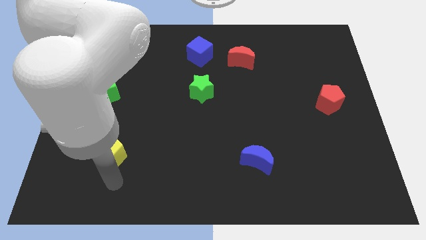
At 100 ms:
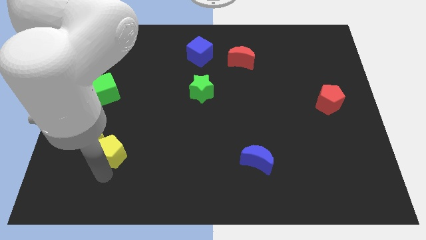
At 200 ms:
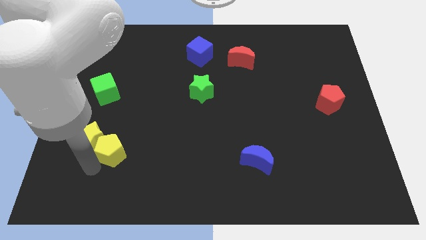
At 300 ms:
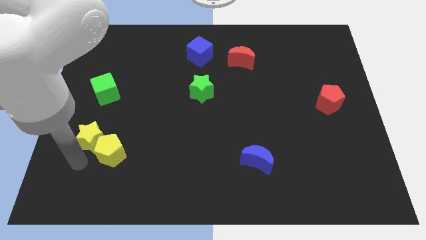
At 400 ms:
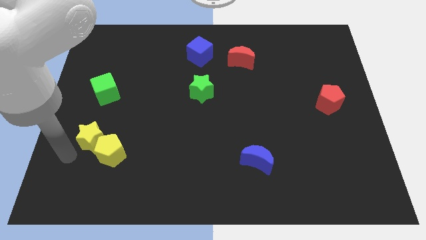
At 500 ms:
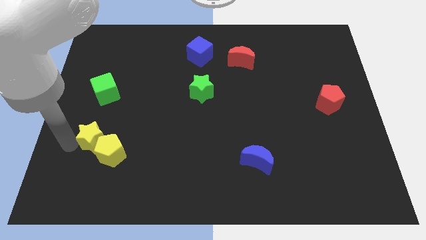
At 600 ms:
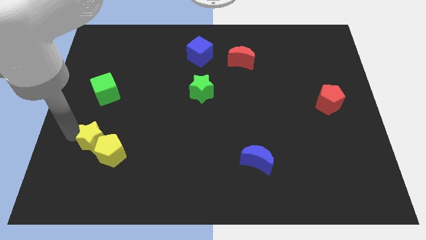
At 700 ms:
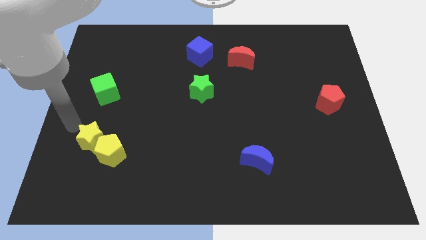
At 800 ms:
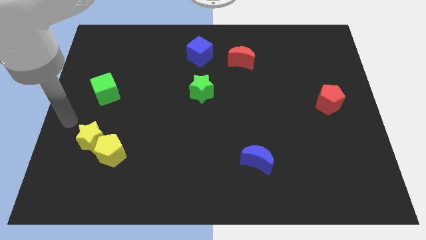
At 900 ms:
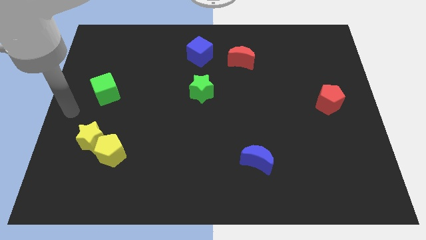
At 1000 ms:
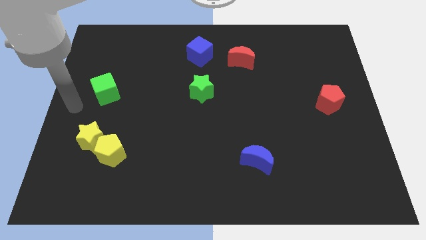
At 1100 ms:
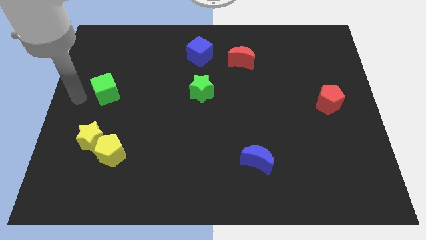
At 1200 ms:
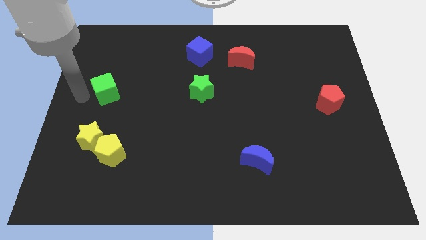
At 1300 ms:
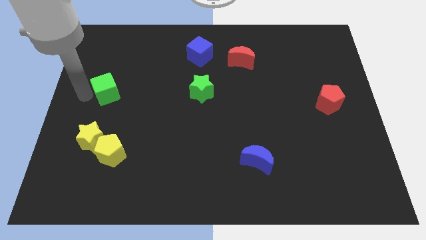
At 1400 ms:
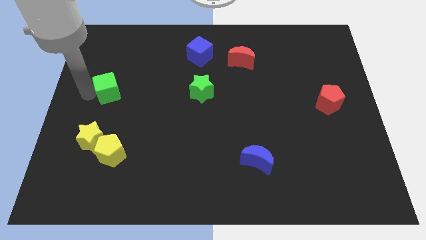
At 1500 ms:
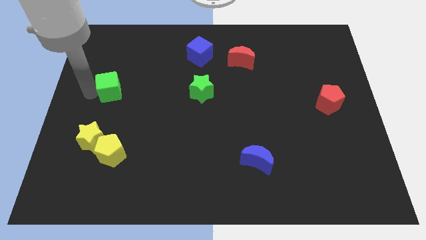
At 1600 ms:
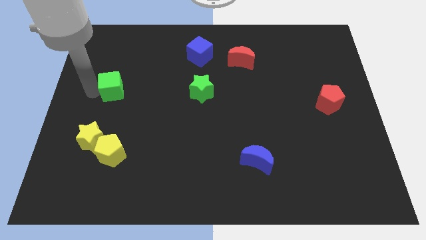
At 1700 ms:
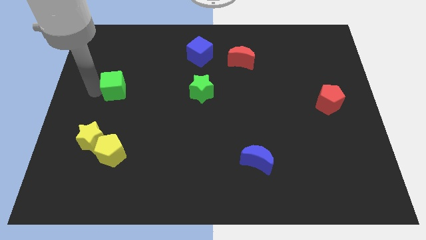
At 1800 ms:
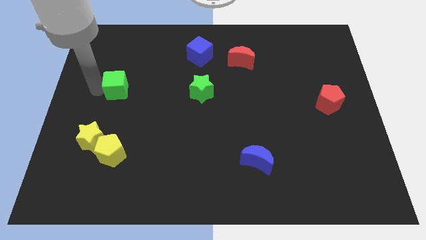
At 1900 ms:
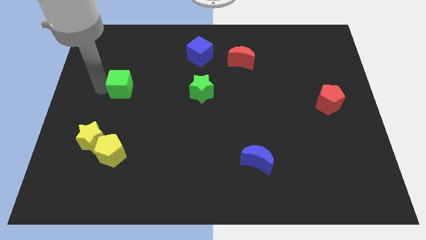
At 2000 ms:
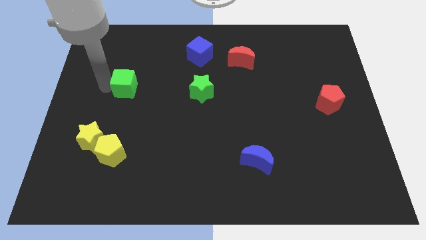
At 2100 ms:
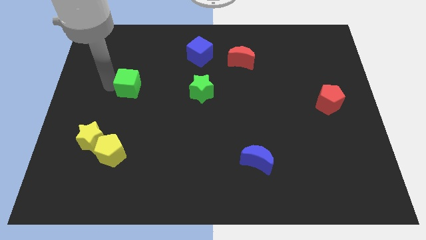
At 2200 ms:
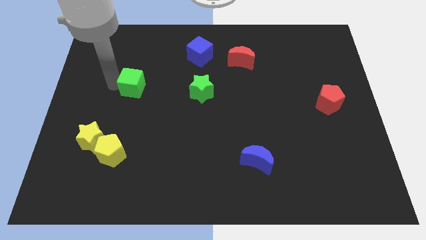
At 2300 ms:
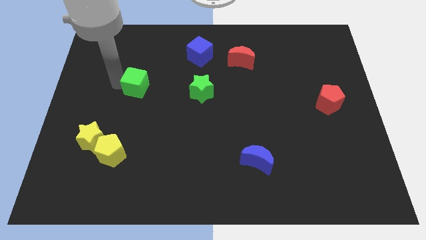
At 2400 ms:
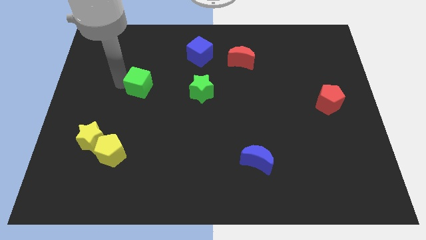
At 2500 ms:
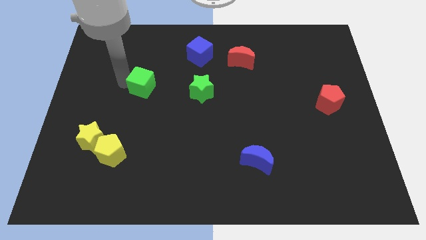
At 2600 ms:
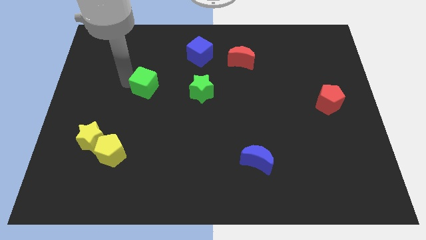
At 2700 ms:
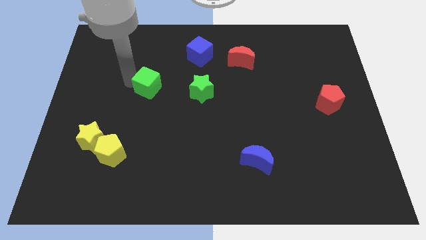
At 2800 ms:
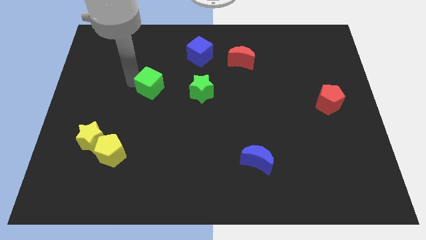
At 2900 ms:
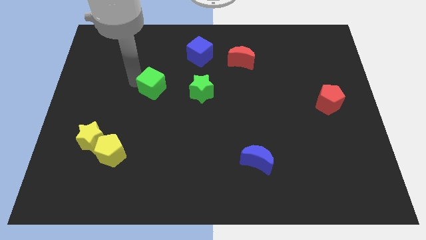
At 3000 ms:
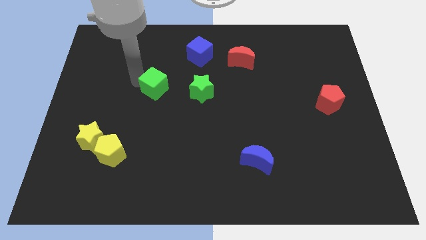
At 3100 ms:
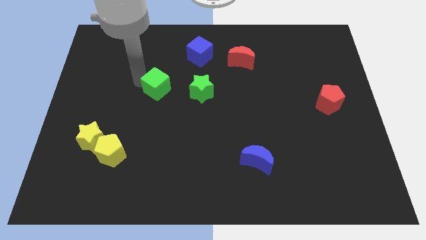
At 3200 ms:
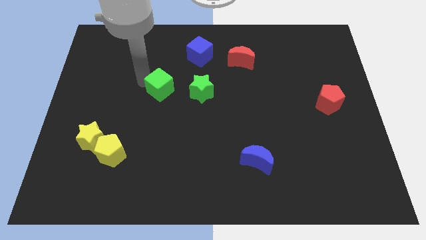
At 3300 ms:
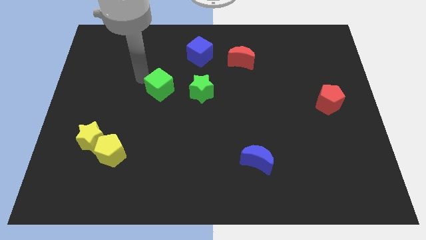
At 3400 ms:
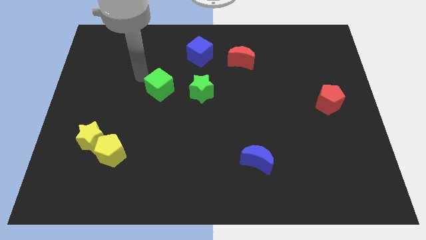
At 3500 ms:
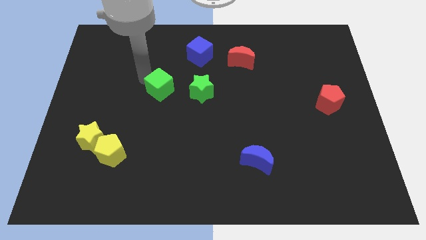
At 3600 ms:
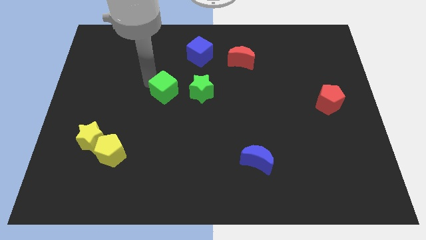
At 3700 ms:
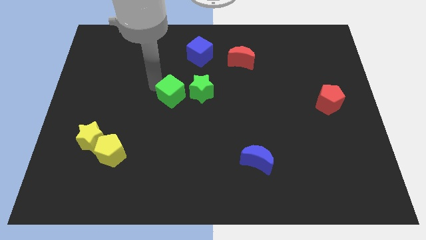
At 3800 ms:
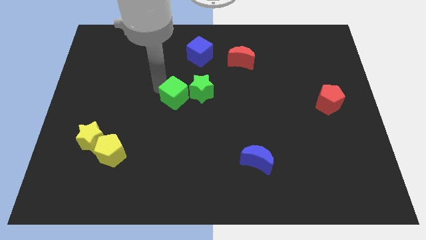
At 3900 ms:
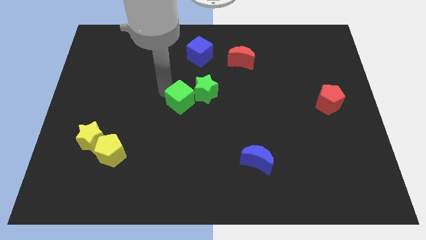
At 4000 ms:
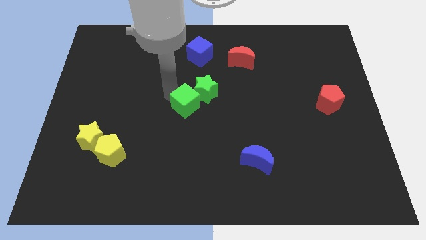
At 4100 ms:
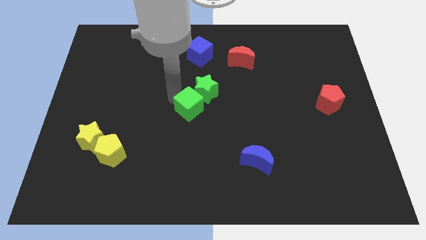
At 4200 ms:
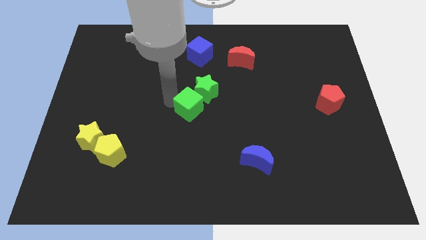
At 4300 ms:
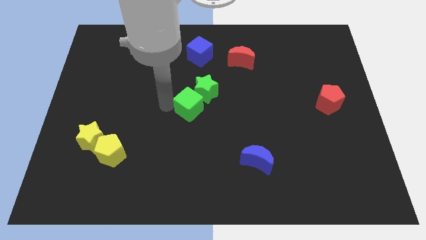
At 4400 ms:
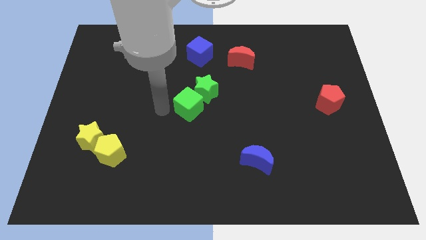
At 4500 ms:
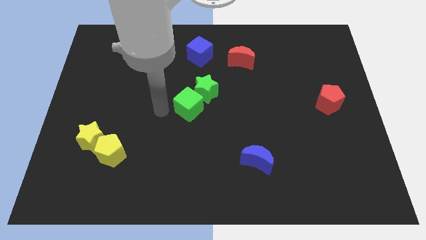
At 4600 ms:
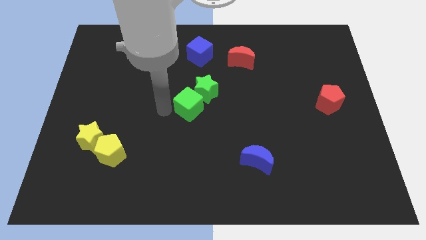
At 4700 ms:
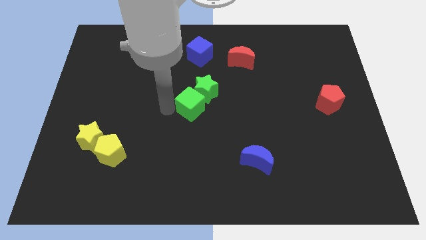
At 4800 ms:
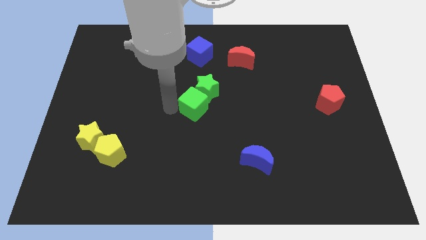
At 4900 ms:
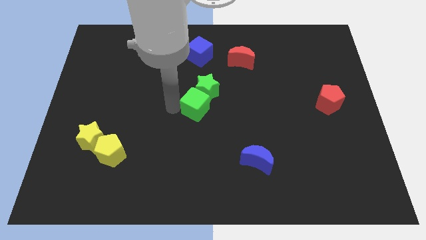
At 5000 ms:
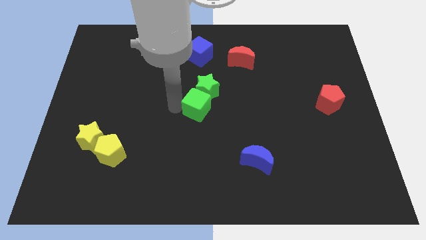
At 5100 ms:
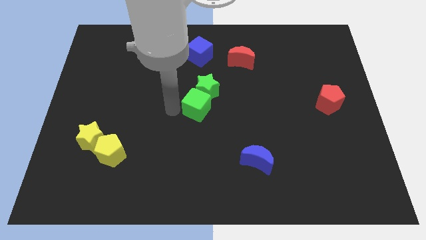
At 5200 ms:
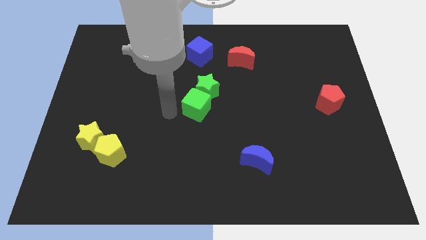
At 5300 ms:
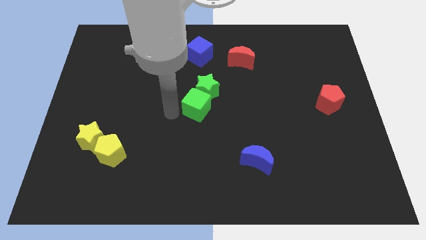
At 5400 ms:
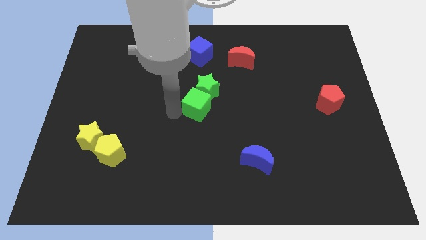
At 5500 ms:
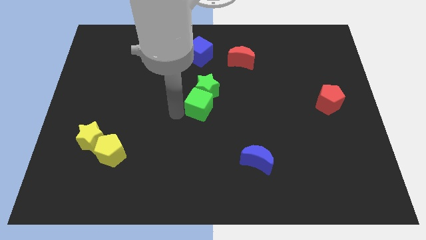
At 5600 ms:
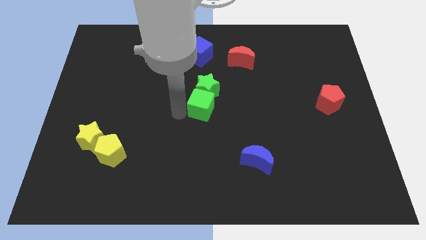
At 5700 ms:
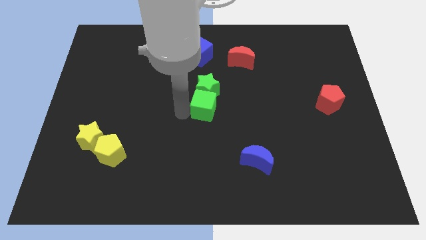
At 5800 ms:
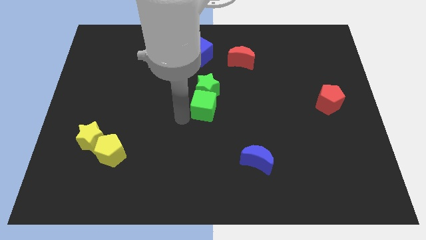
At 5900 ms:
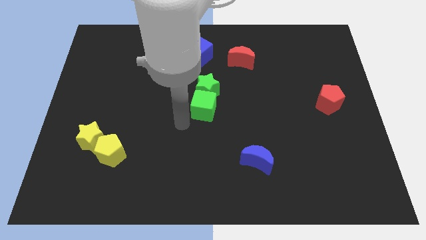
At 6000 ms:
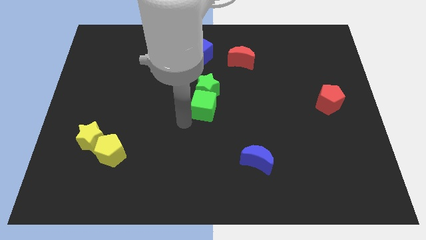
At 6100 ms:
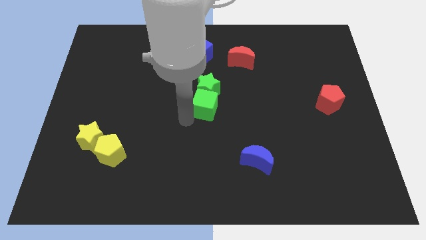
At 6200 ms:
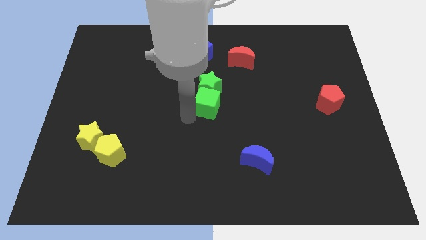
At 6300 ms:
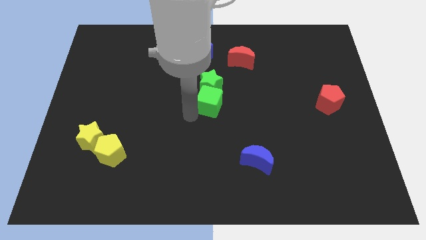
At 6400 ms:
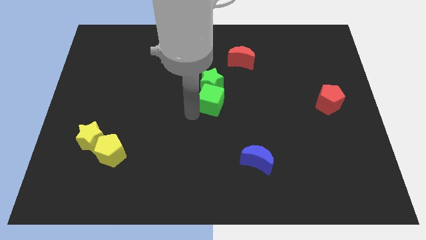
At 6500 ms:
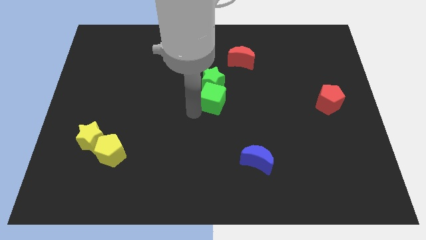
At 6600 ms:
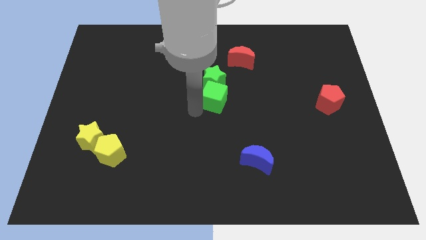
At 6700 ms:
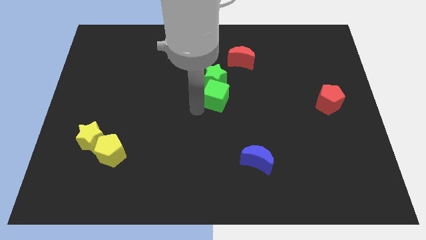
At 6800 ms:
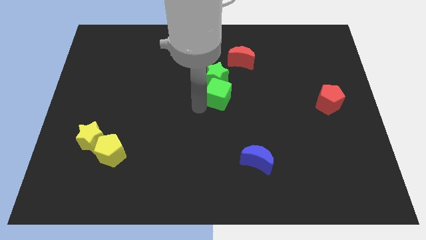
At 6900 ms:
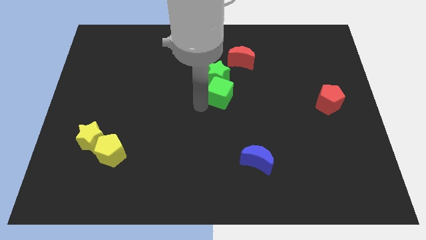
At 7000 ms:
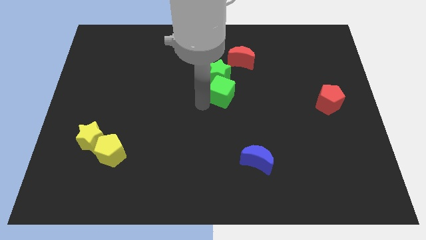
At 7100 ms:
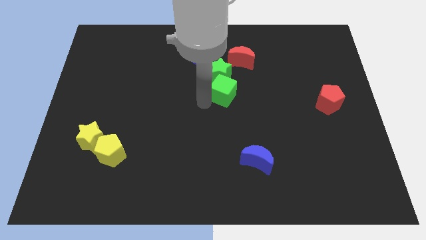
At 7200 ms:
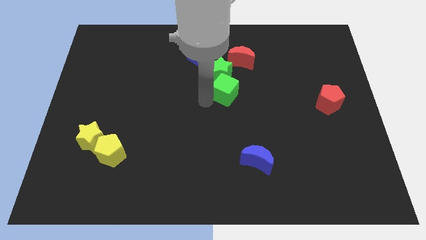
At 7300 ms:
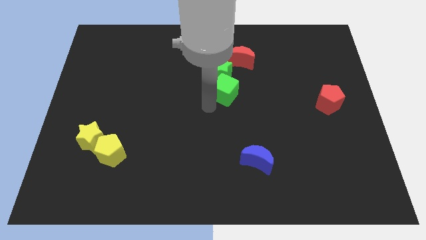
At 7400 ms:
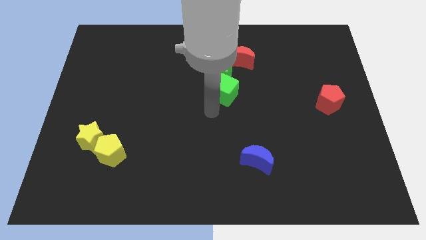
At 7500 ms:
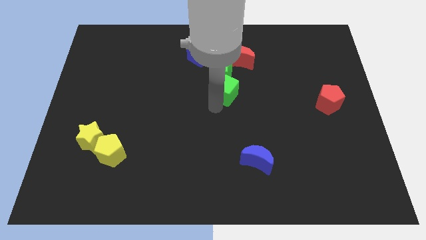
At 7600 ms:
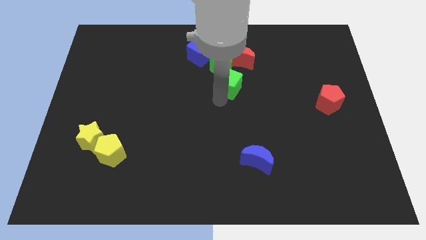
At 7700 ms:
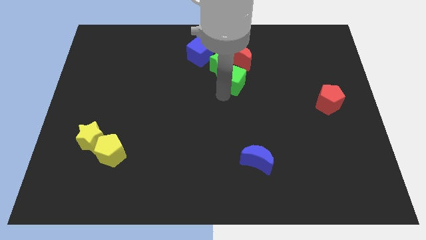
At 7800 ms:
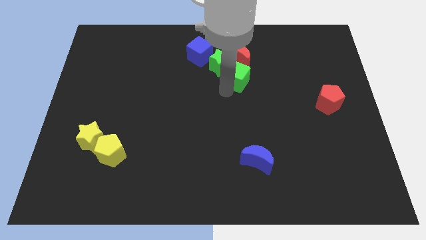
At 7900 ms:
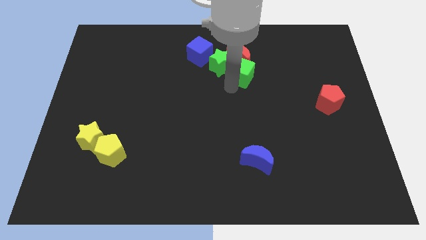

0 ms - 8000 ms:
move the green cube to the red moon
